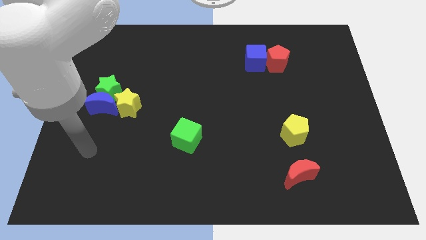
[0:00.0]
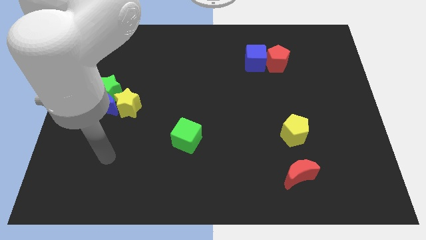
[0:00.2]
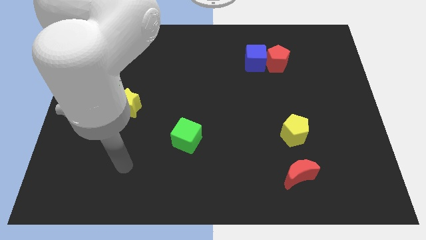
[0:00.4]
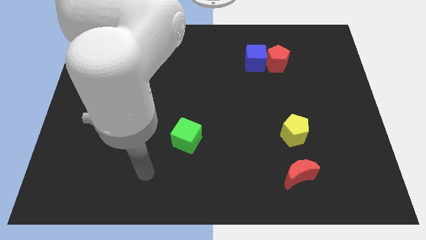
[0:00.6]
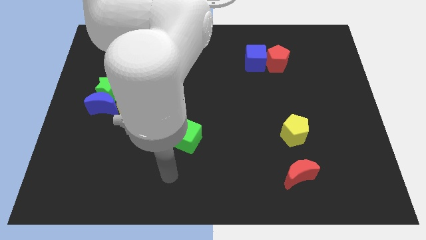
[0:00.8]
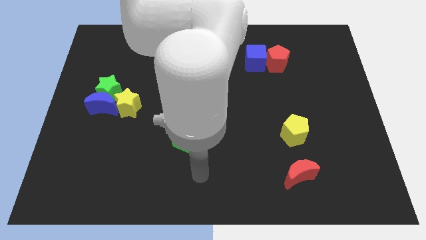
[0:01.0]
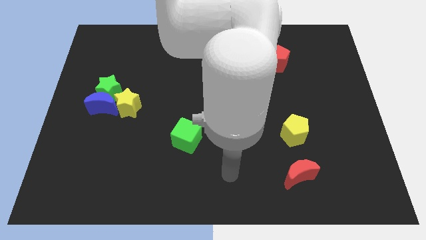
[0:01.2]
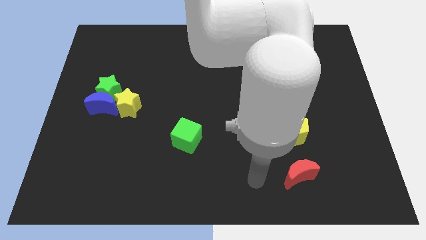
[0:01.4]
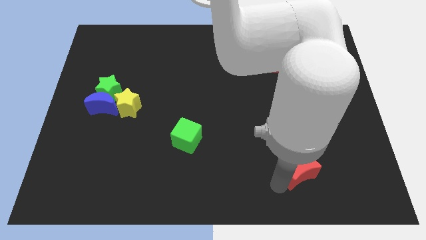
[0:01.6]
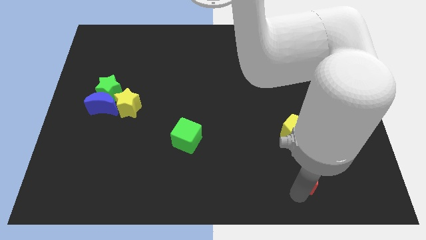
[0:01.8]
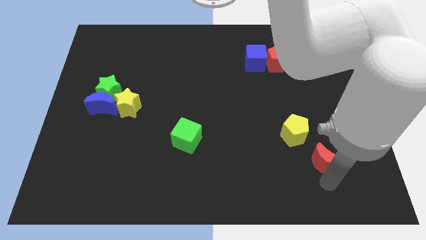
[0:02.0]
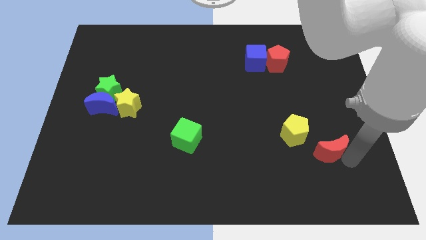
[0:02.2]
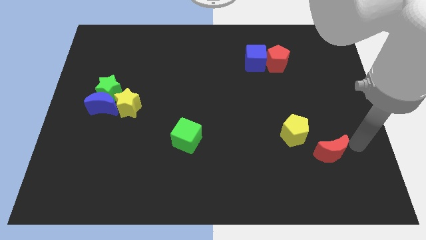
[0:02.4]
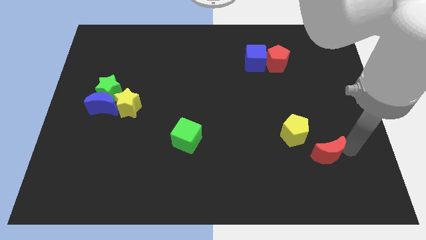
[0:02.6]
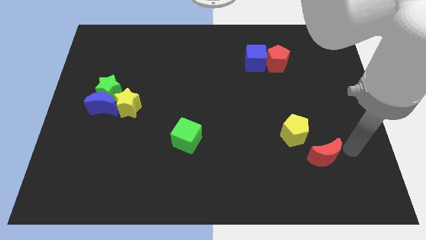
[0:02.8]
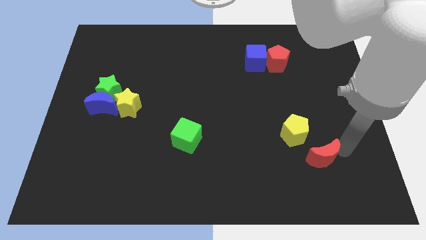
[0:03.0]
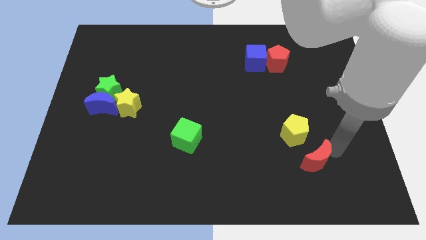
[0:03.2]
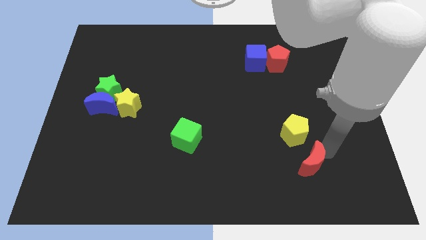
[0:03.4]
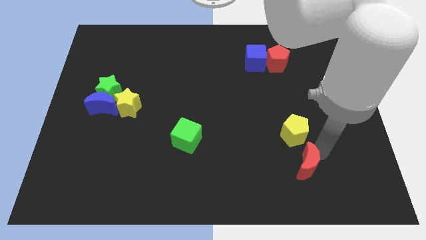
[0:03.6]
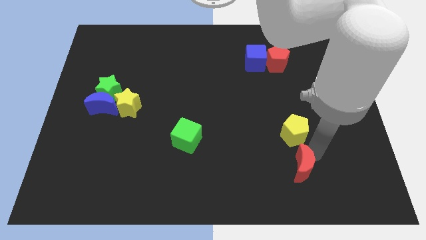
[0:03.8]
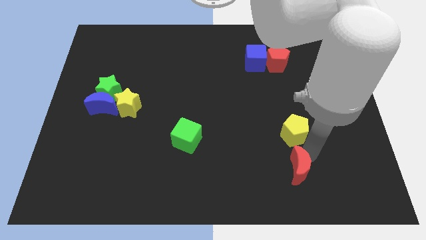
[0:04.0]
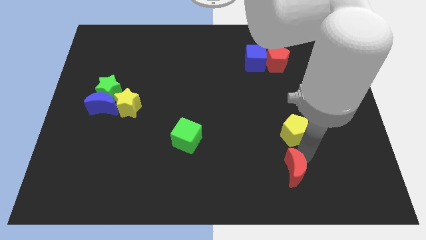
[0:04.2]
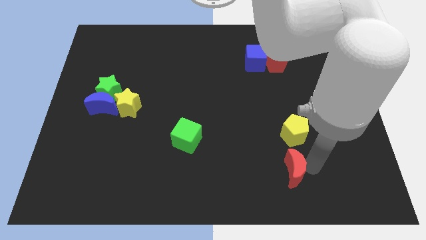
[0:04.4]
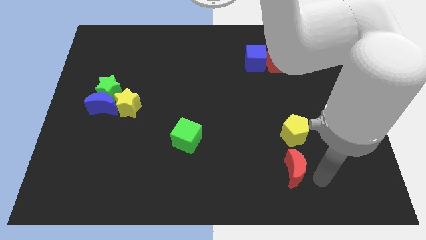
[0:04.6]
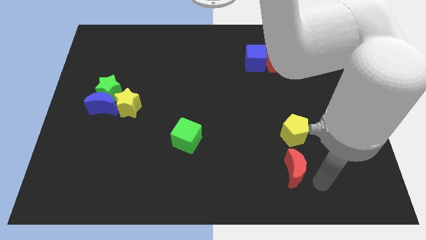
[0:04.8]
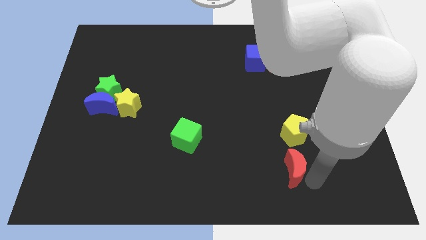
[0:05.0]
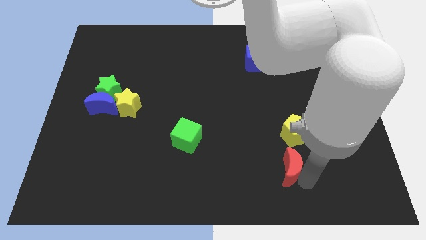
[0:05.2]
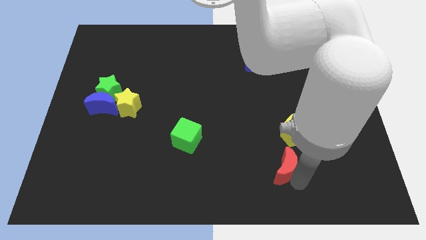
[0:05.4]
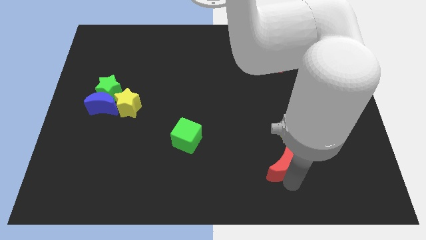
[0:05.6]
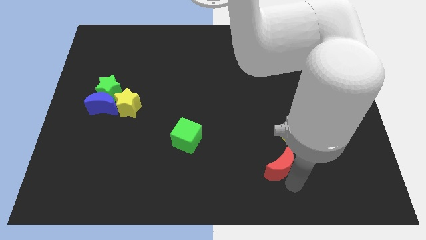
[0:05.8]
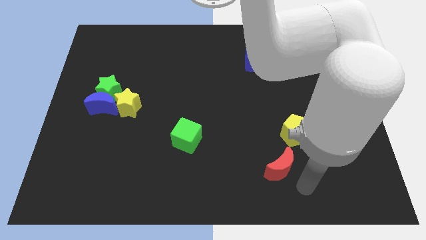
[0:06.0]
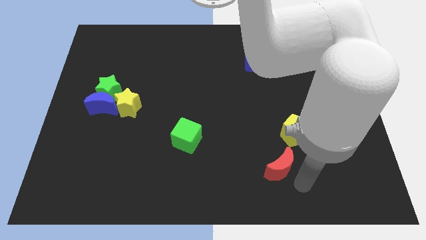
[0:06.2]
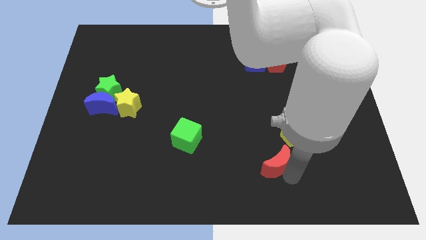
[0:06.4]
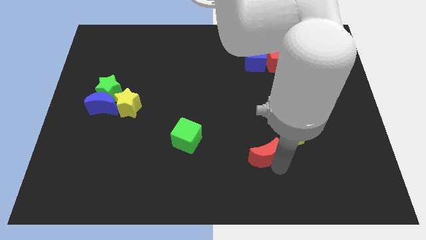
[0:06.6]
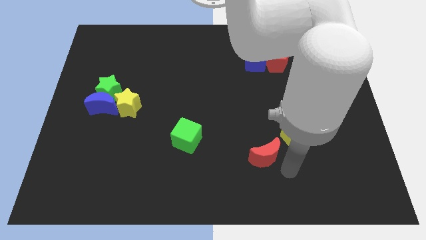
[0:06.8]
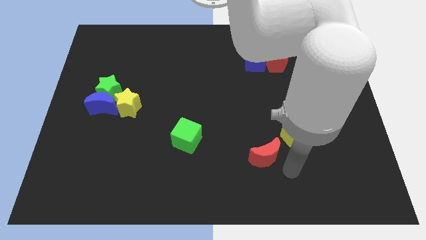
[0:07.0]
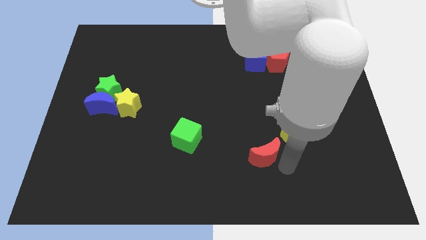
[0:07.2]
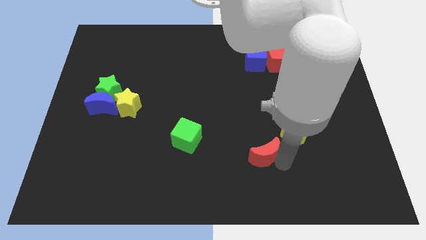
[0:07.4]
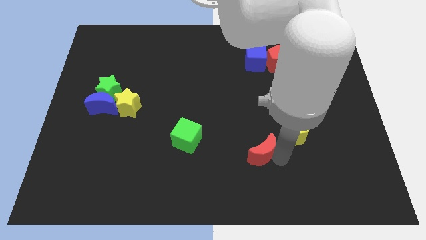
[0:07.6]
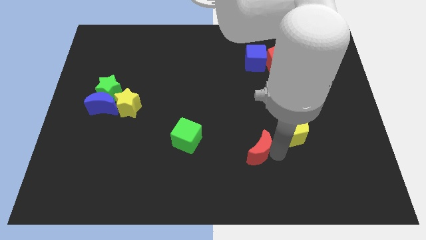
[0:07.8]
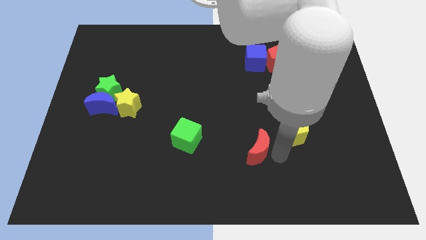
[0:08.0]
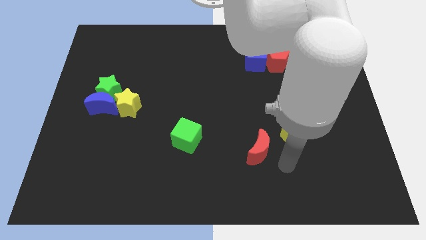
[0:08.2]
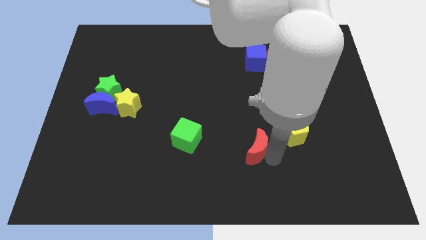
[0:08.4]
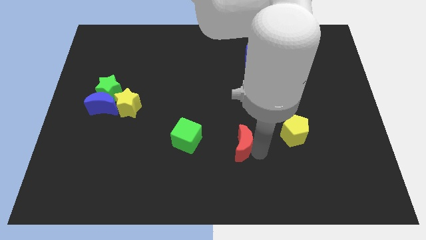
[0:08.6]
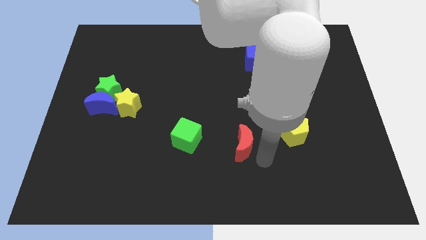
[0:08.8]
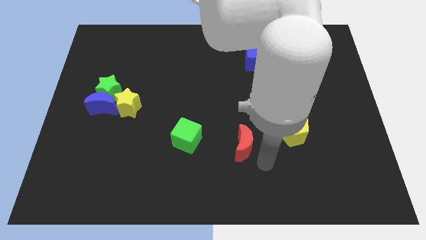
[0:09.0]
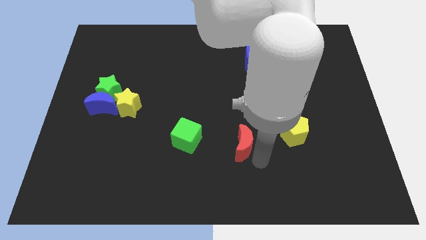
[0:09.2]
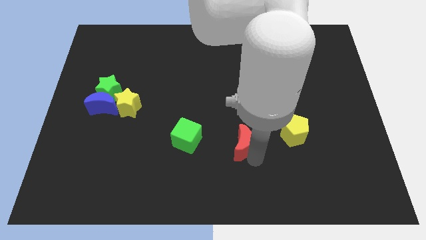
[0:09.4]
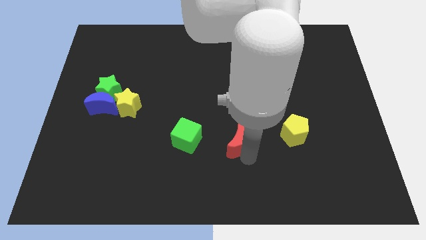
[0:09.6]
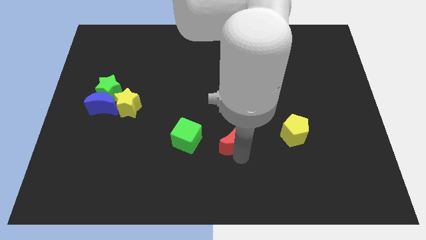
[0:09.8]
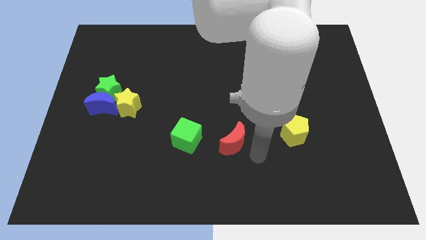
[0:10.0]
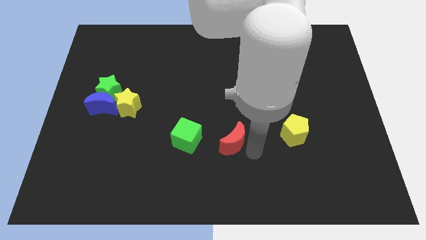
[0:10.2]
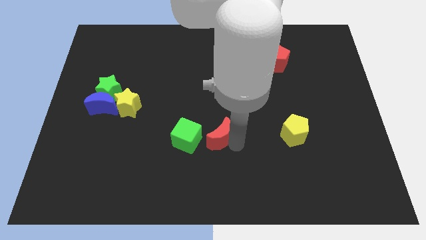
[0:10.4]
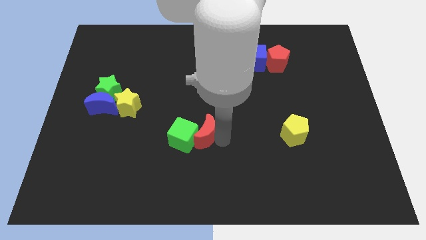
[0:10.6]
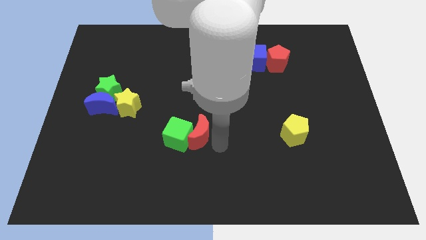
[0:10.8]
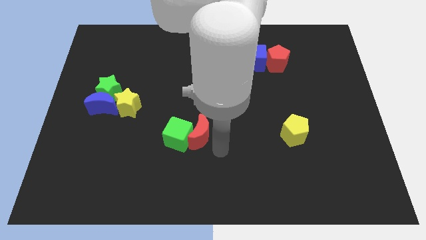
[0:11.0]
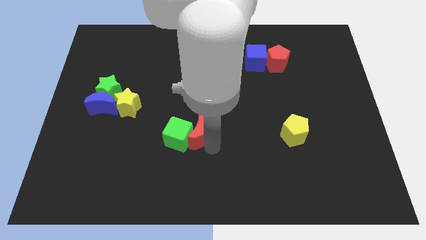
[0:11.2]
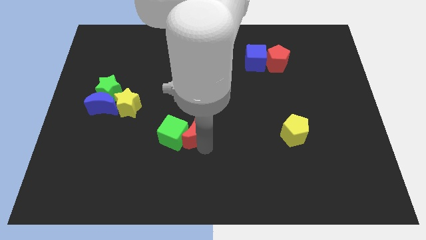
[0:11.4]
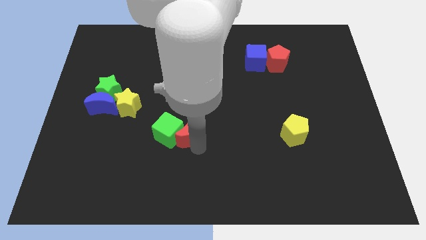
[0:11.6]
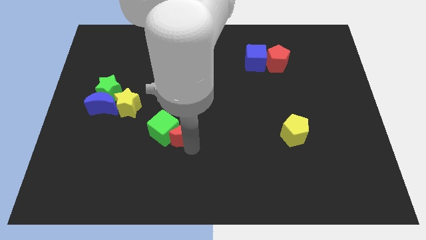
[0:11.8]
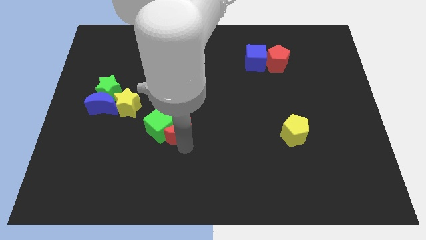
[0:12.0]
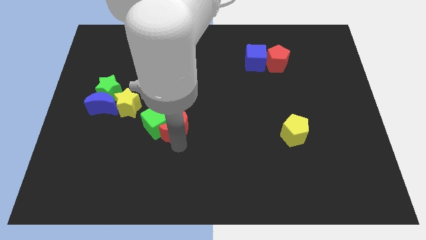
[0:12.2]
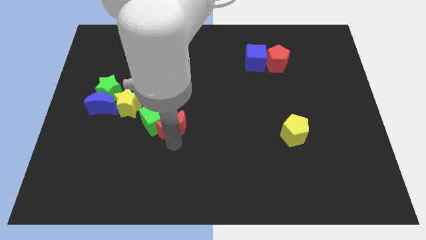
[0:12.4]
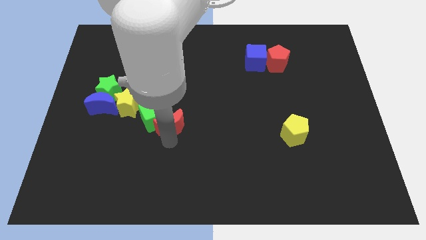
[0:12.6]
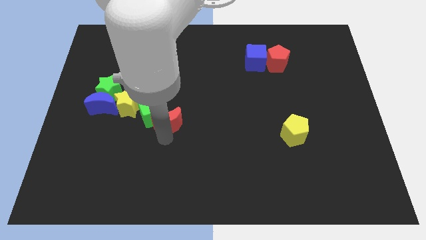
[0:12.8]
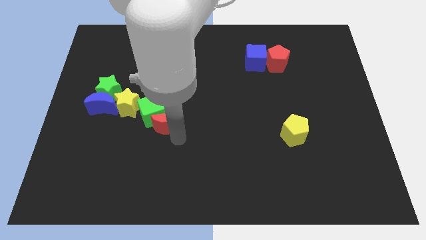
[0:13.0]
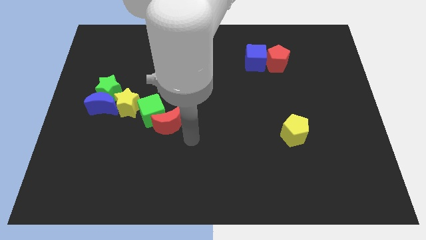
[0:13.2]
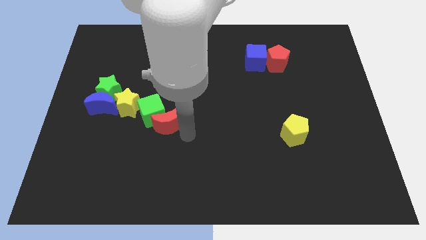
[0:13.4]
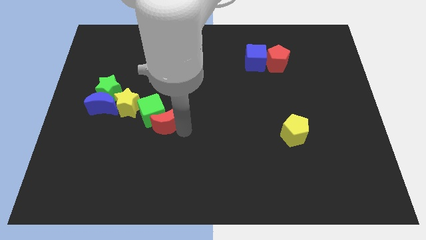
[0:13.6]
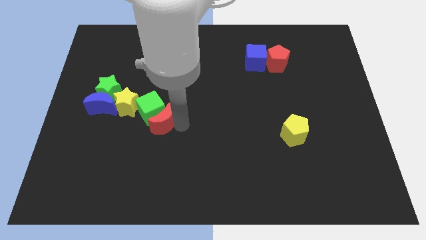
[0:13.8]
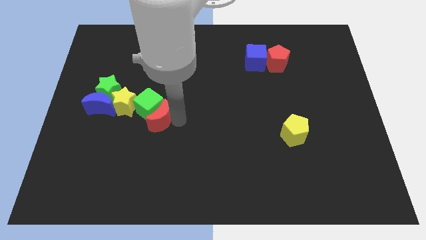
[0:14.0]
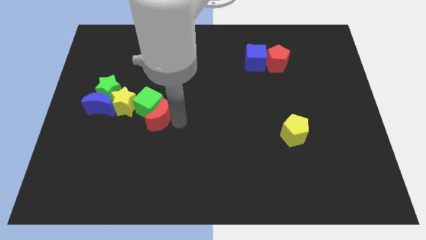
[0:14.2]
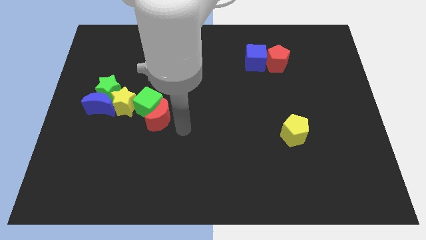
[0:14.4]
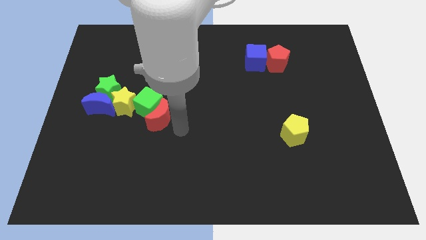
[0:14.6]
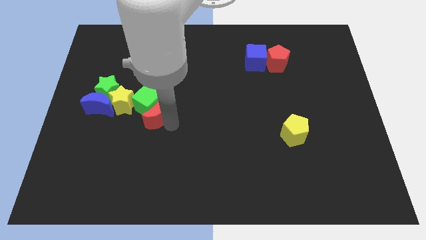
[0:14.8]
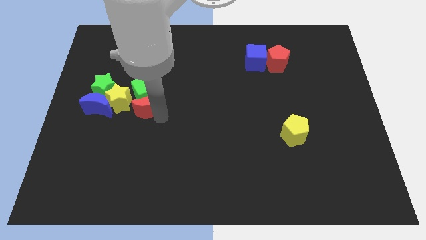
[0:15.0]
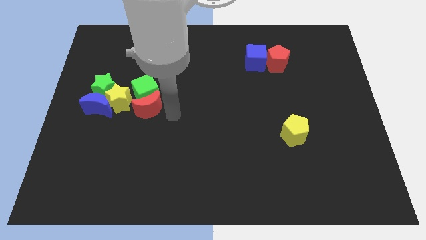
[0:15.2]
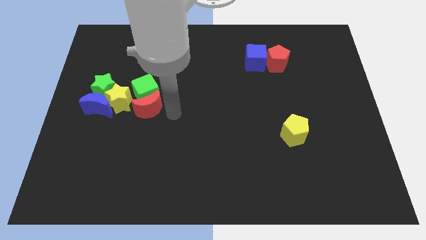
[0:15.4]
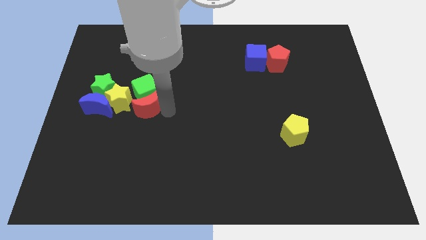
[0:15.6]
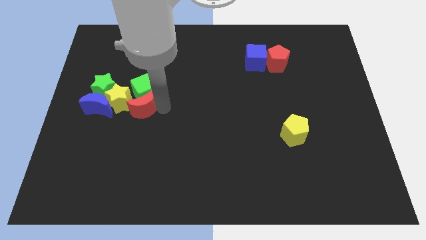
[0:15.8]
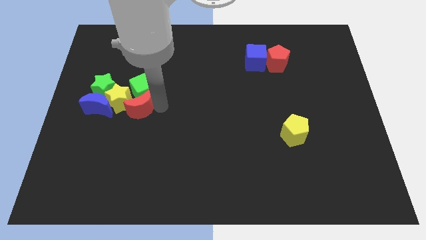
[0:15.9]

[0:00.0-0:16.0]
put the red moon to the yellow star
